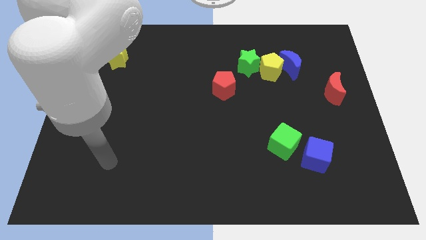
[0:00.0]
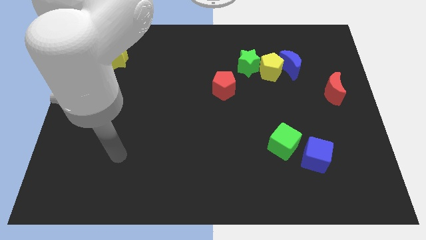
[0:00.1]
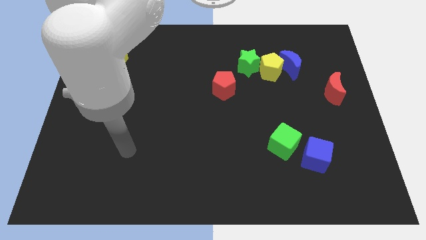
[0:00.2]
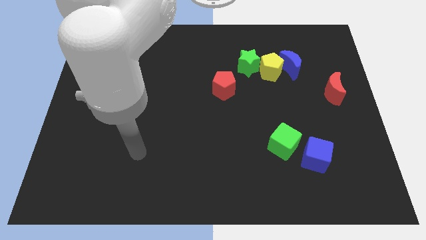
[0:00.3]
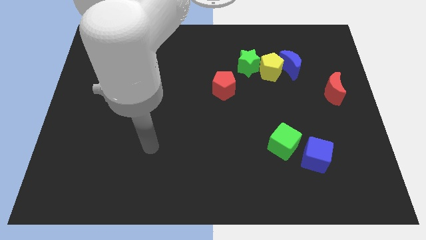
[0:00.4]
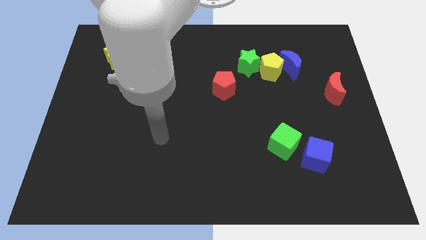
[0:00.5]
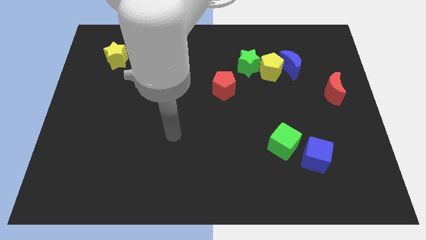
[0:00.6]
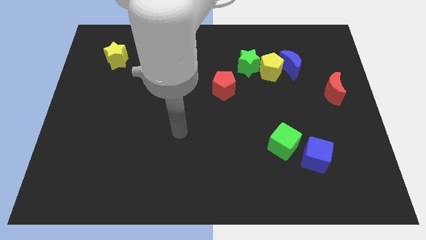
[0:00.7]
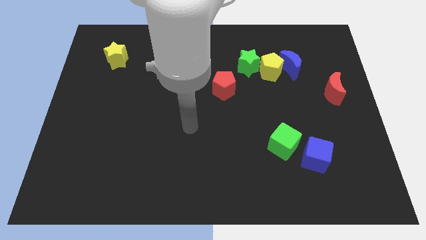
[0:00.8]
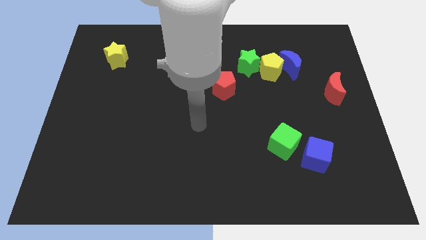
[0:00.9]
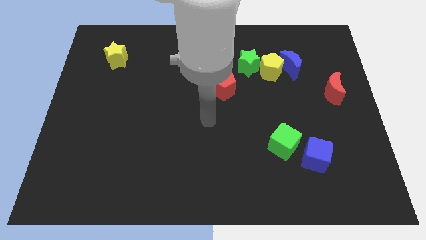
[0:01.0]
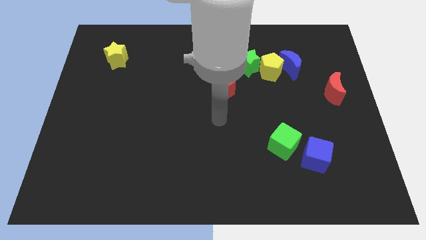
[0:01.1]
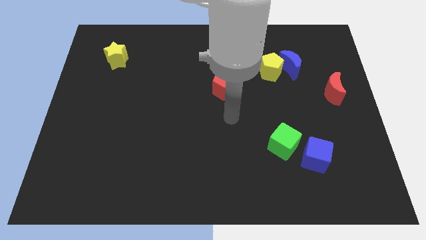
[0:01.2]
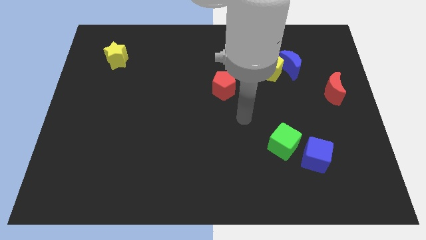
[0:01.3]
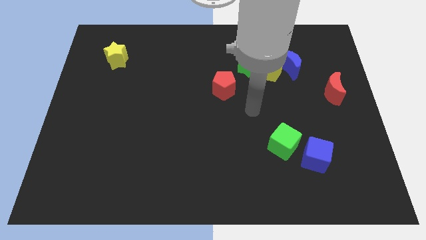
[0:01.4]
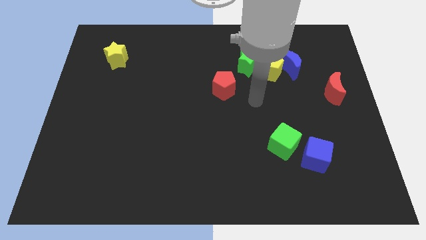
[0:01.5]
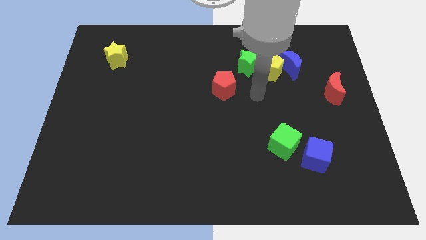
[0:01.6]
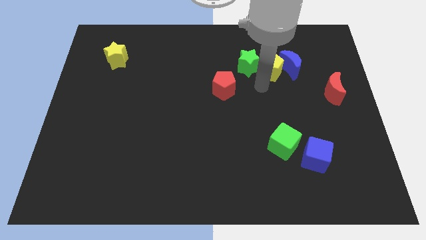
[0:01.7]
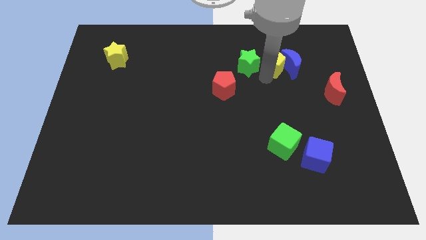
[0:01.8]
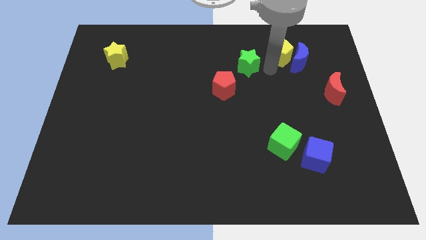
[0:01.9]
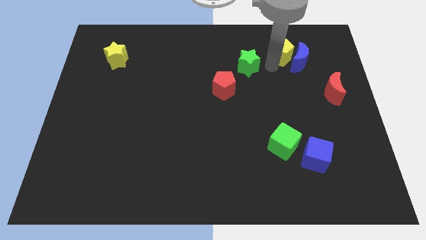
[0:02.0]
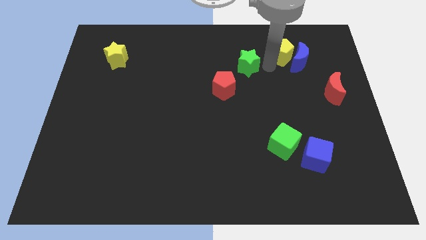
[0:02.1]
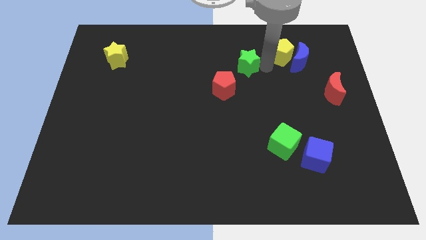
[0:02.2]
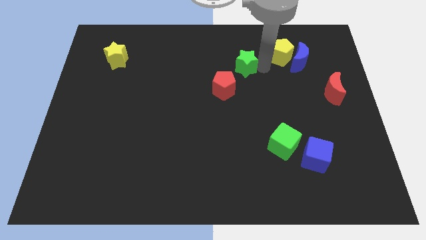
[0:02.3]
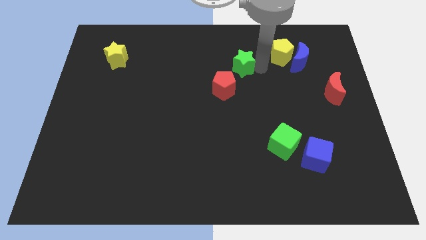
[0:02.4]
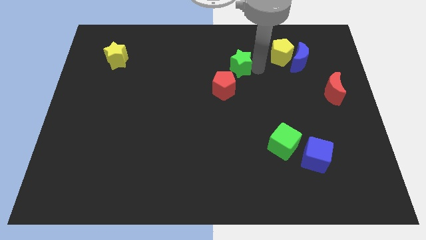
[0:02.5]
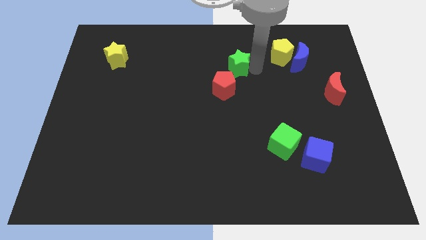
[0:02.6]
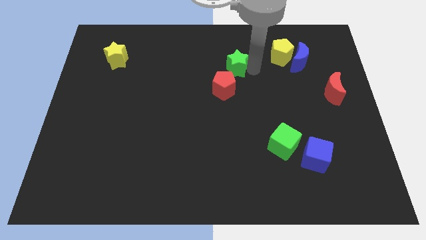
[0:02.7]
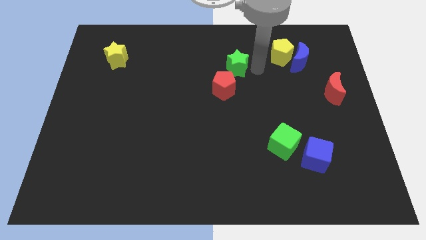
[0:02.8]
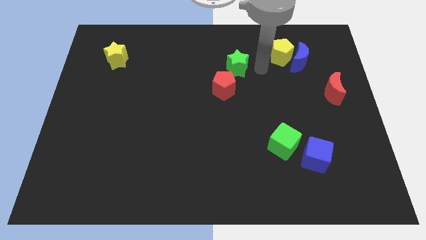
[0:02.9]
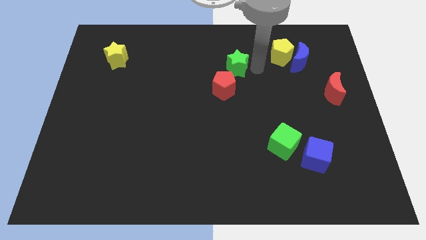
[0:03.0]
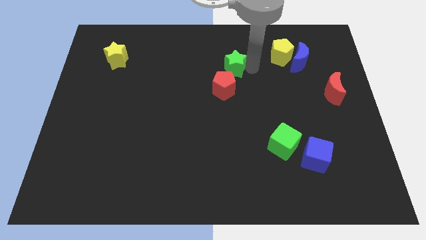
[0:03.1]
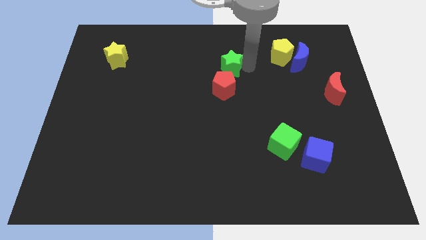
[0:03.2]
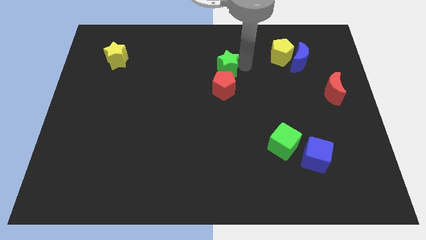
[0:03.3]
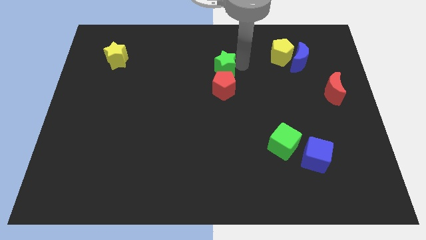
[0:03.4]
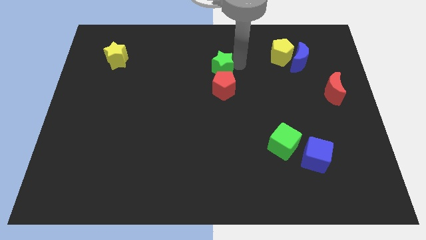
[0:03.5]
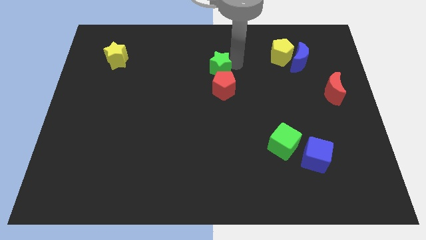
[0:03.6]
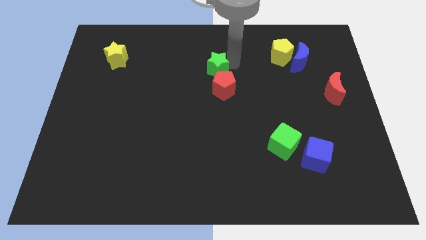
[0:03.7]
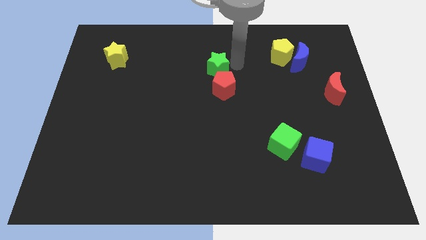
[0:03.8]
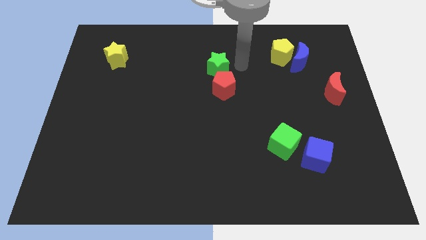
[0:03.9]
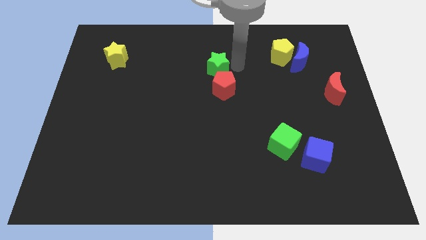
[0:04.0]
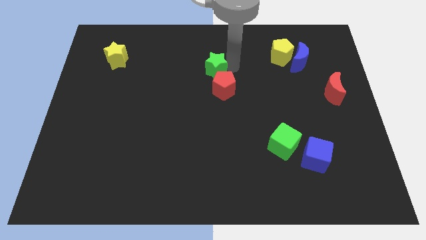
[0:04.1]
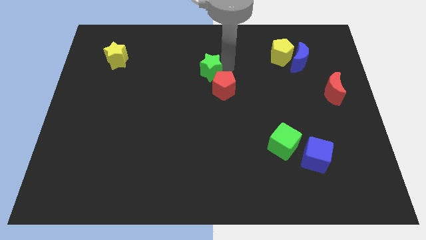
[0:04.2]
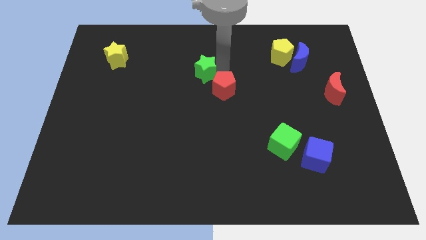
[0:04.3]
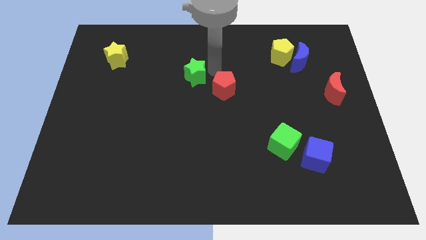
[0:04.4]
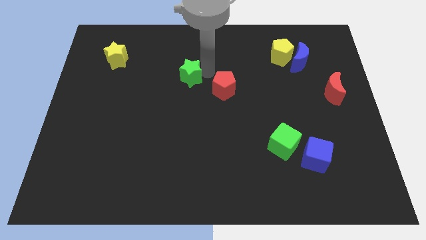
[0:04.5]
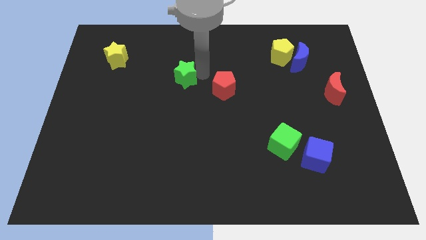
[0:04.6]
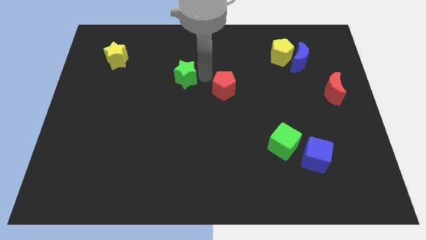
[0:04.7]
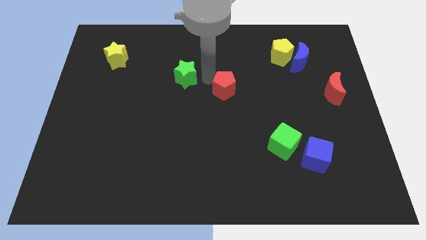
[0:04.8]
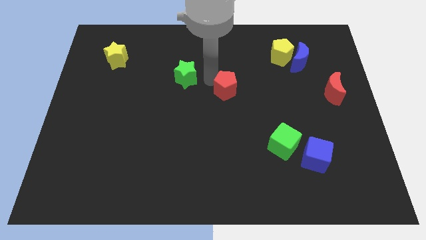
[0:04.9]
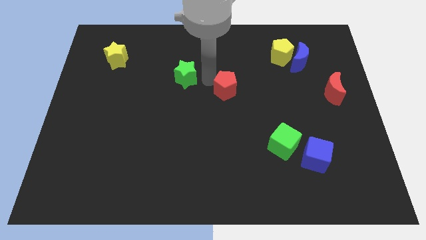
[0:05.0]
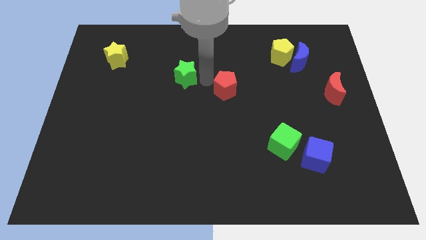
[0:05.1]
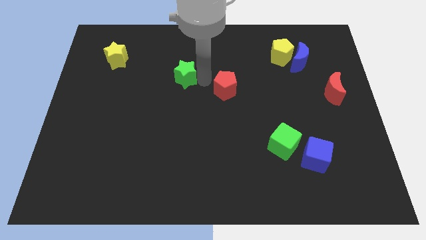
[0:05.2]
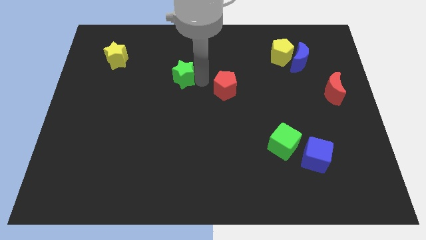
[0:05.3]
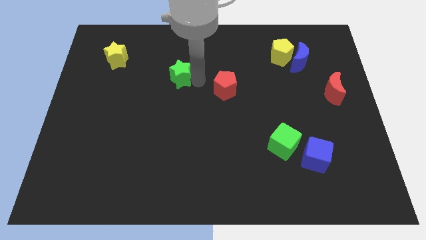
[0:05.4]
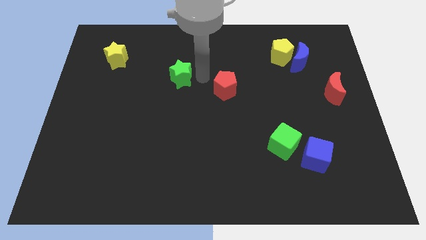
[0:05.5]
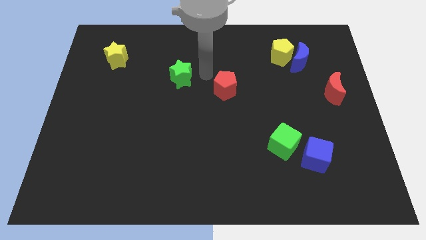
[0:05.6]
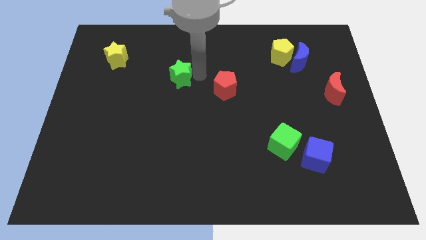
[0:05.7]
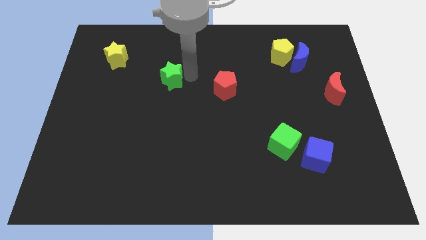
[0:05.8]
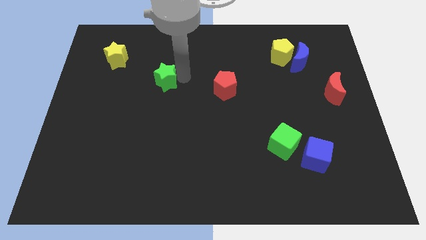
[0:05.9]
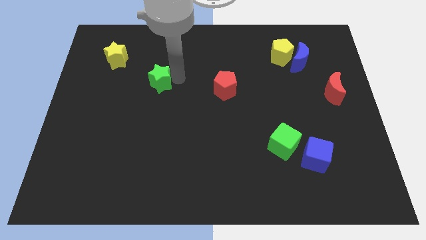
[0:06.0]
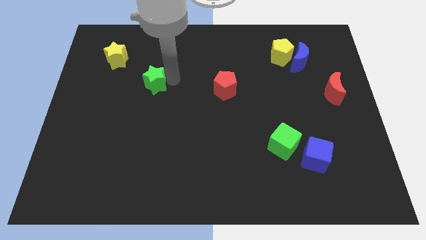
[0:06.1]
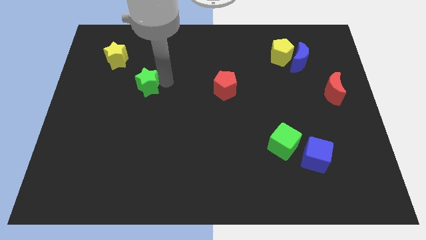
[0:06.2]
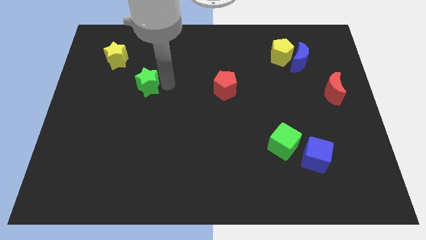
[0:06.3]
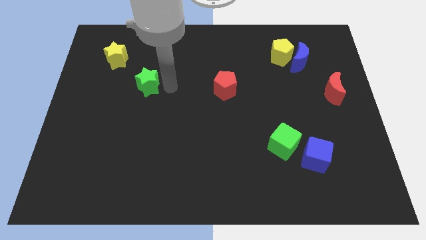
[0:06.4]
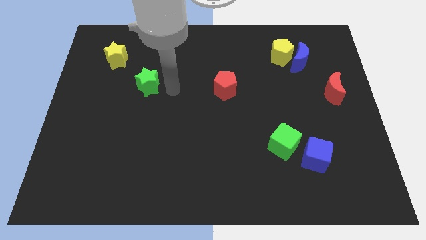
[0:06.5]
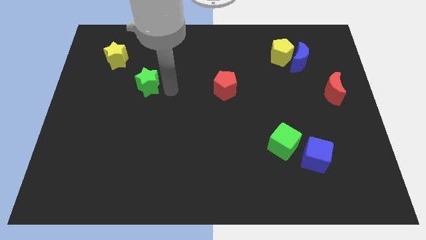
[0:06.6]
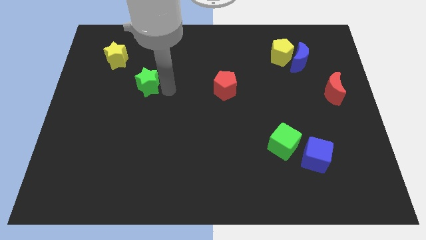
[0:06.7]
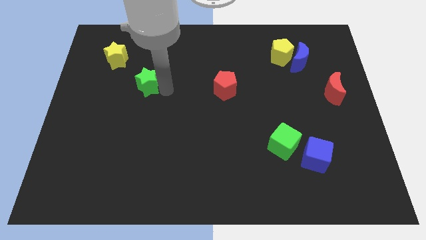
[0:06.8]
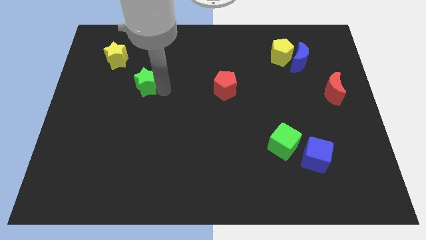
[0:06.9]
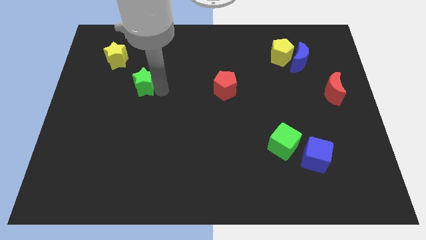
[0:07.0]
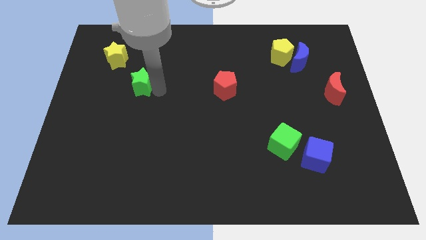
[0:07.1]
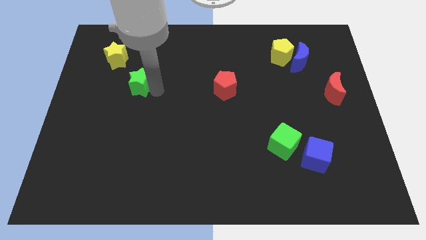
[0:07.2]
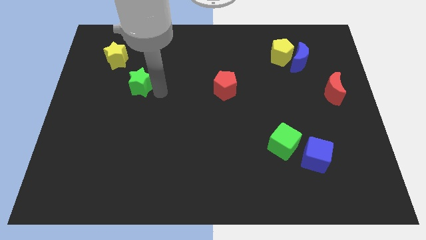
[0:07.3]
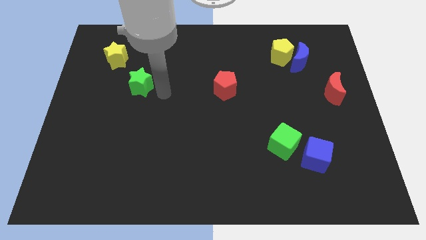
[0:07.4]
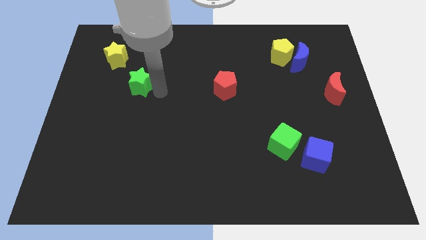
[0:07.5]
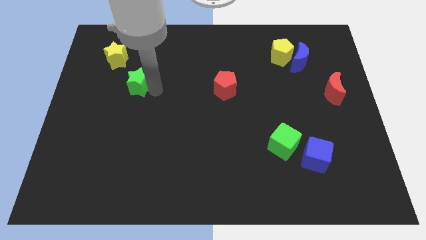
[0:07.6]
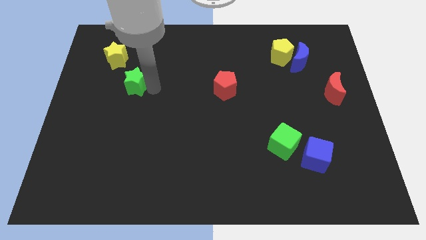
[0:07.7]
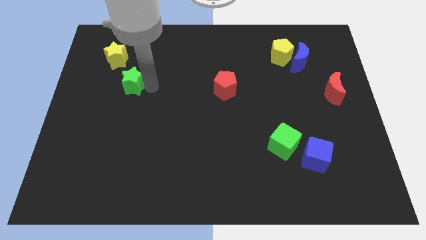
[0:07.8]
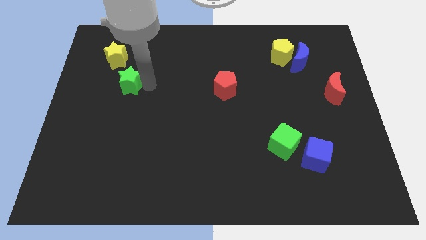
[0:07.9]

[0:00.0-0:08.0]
slide the green star to the bottom of the yellow star

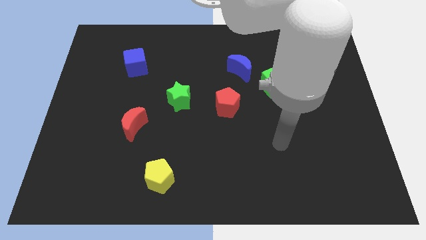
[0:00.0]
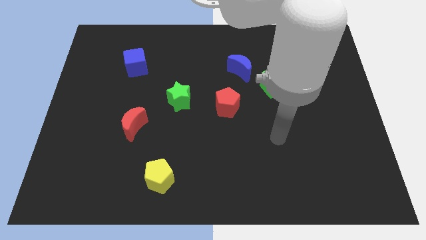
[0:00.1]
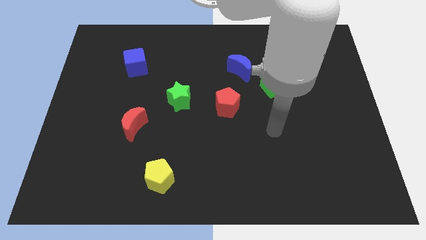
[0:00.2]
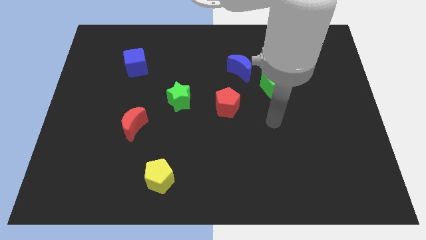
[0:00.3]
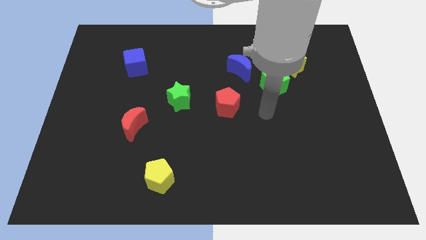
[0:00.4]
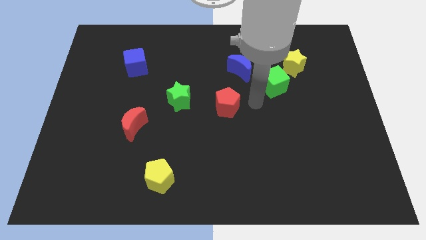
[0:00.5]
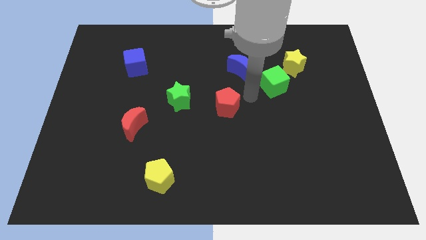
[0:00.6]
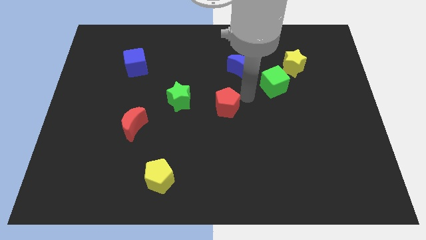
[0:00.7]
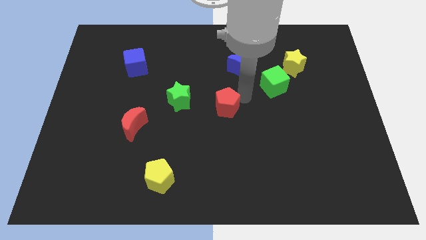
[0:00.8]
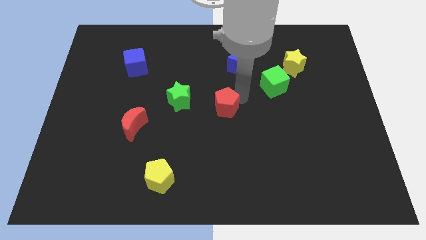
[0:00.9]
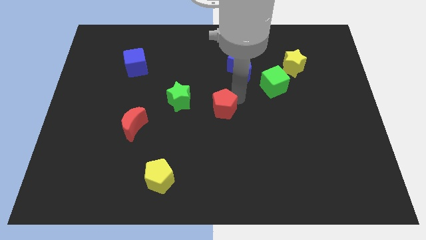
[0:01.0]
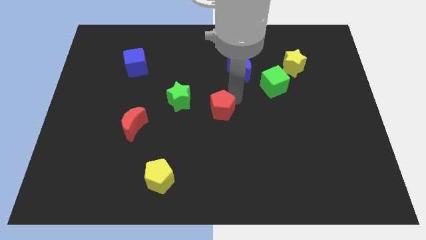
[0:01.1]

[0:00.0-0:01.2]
push the red pentagon to the bottom right of the green star
